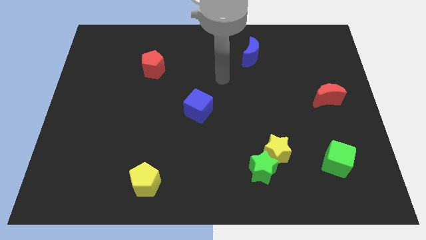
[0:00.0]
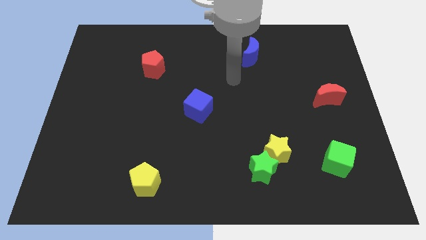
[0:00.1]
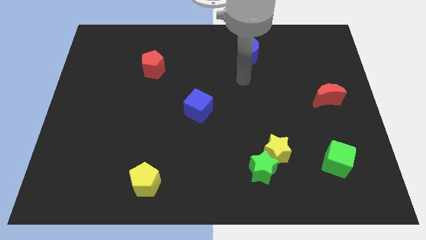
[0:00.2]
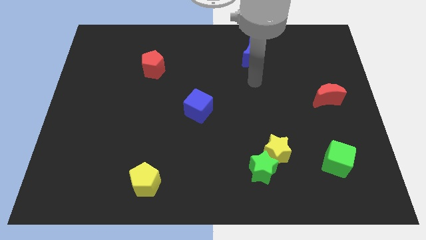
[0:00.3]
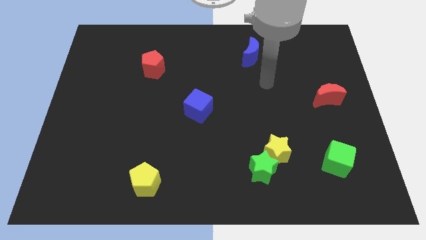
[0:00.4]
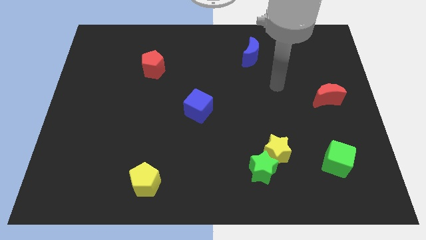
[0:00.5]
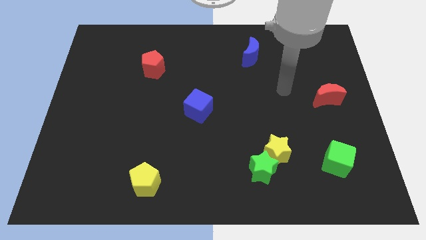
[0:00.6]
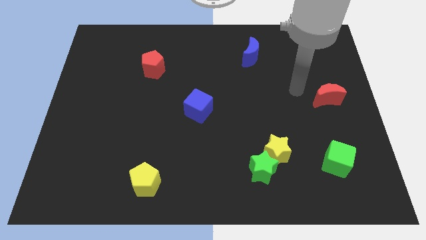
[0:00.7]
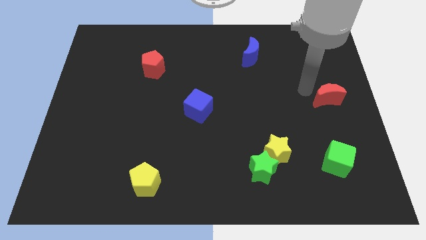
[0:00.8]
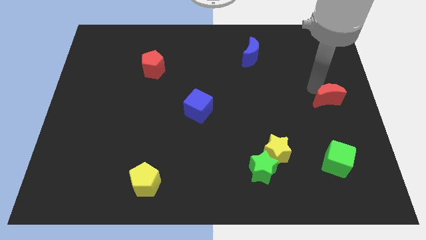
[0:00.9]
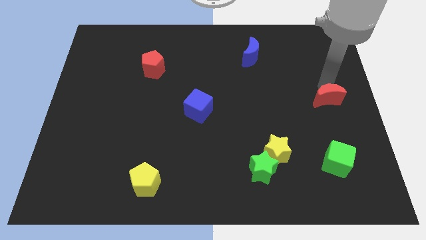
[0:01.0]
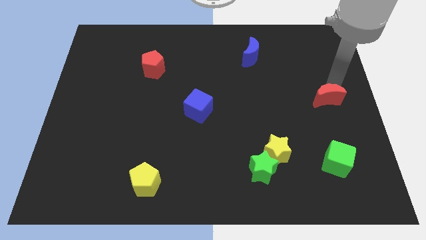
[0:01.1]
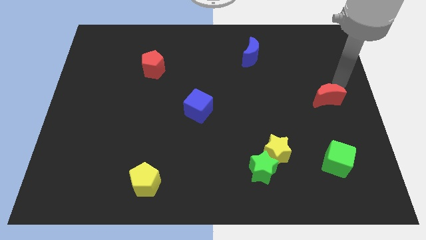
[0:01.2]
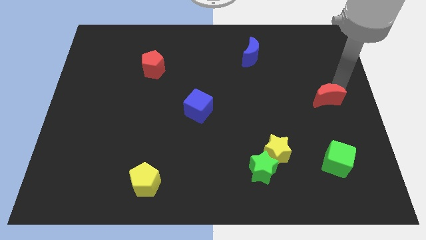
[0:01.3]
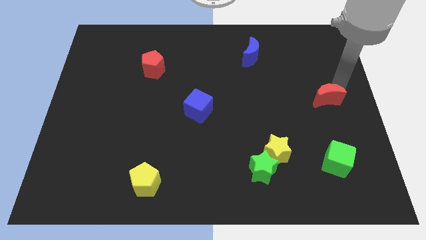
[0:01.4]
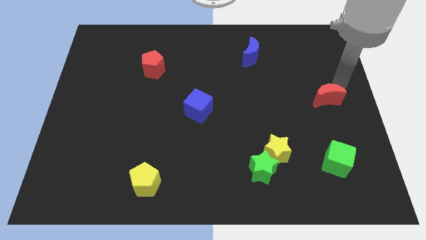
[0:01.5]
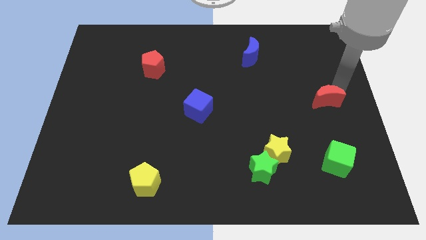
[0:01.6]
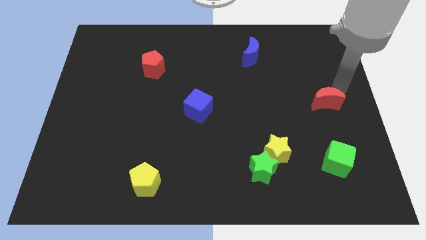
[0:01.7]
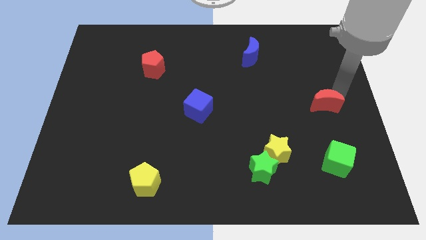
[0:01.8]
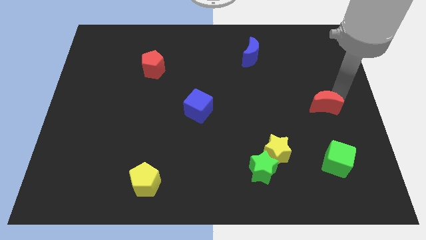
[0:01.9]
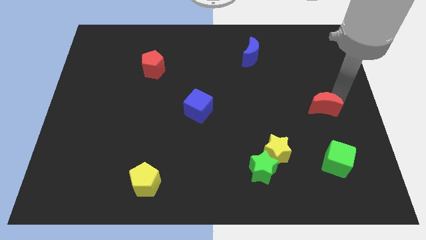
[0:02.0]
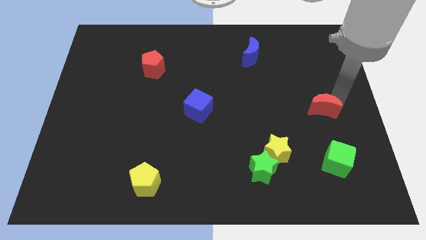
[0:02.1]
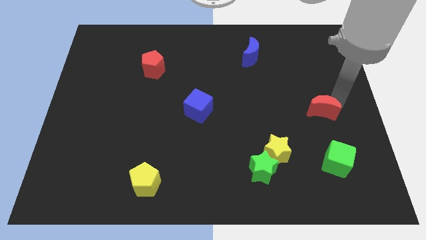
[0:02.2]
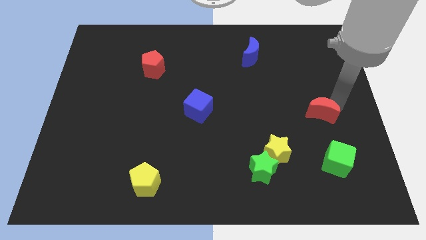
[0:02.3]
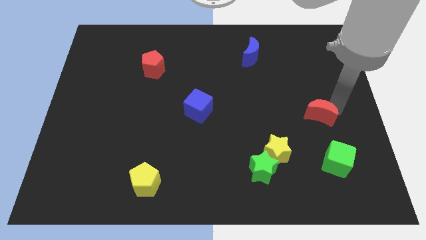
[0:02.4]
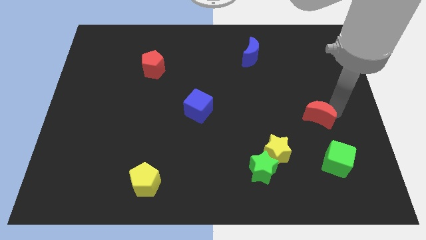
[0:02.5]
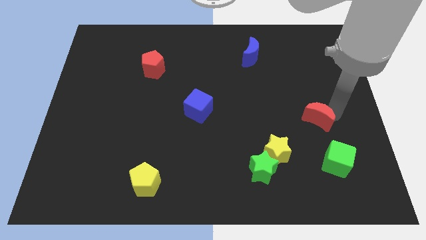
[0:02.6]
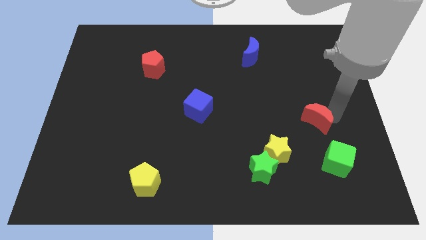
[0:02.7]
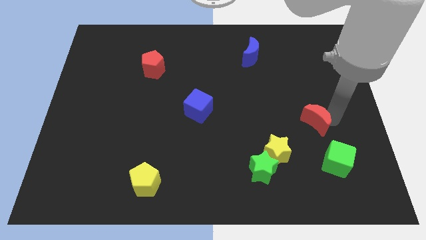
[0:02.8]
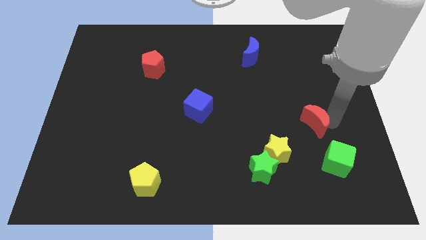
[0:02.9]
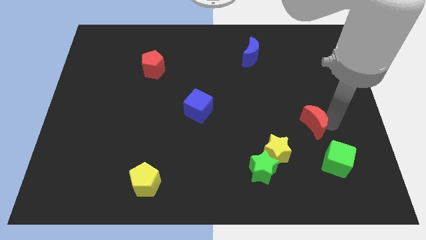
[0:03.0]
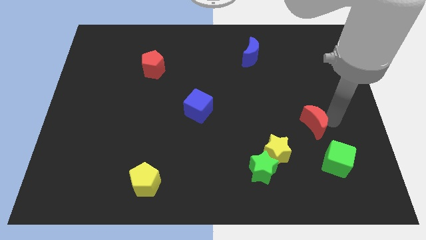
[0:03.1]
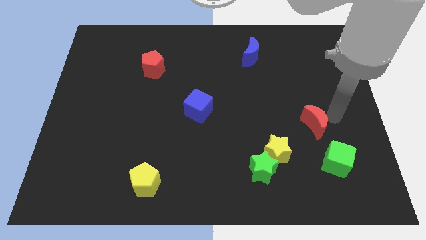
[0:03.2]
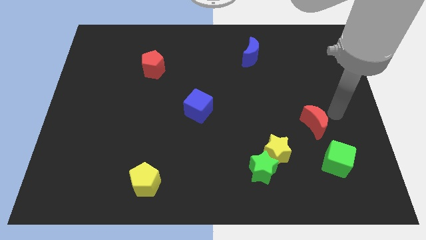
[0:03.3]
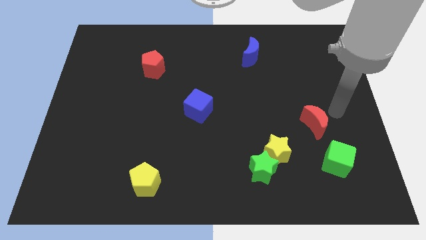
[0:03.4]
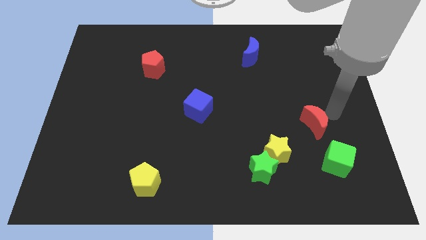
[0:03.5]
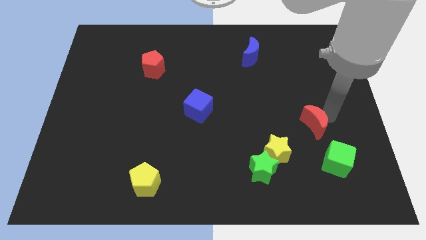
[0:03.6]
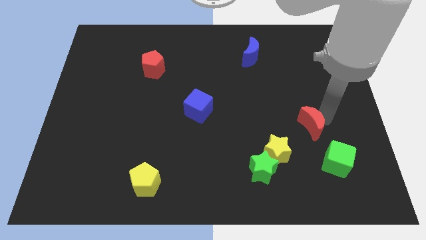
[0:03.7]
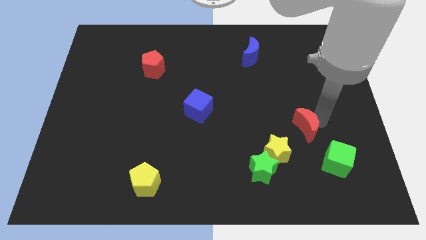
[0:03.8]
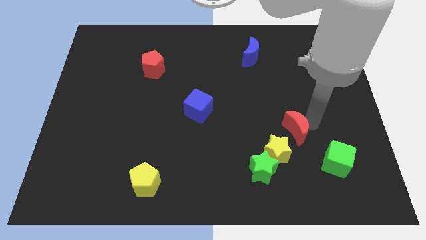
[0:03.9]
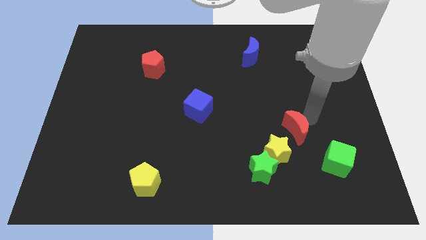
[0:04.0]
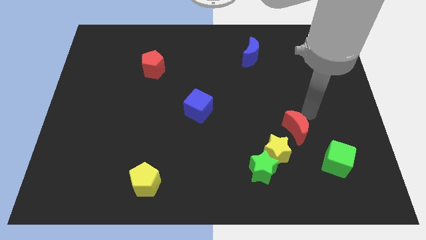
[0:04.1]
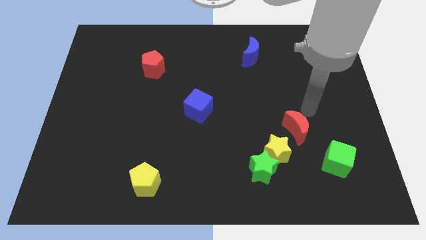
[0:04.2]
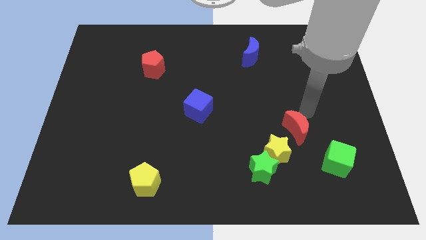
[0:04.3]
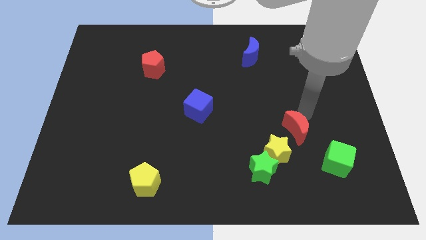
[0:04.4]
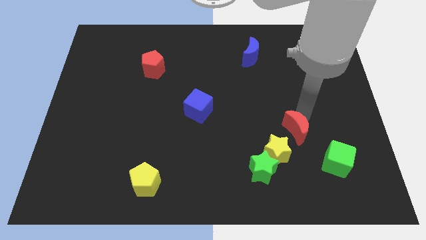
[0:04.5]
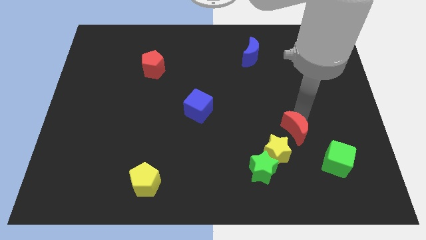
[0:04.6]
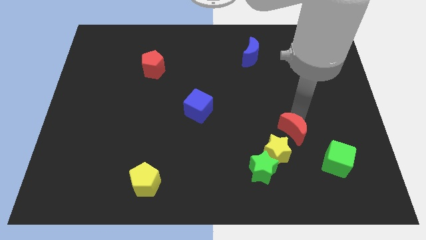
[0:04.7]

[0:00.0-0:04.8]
slide the red moon diagonally up and to the right of the green star

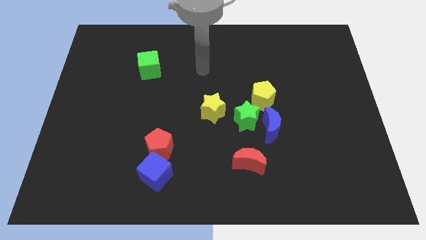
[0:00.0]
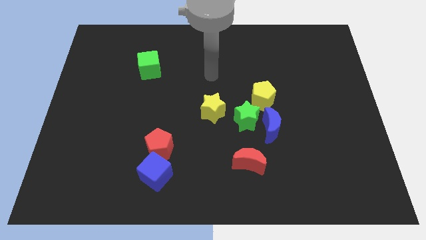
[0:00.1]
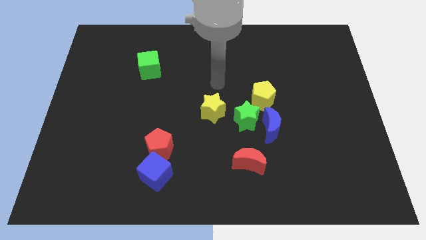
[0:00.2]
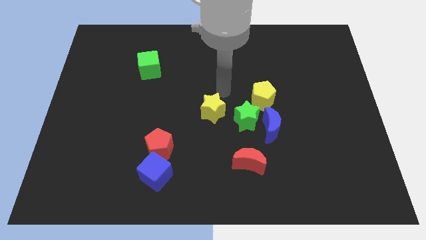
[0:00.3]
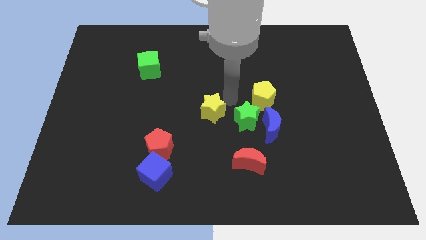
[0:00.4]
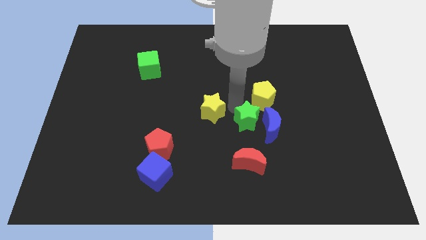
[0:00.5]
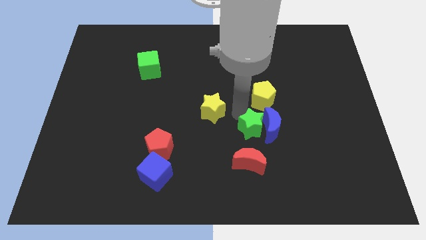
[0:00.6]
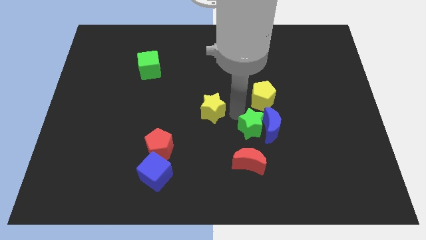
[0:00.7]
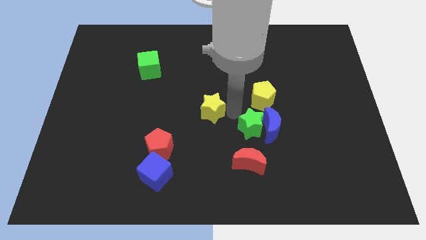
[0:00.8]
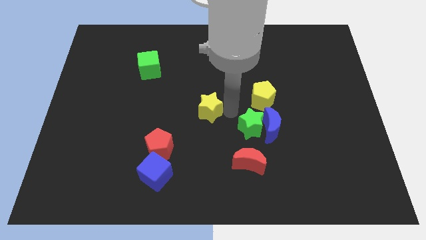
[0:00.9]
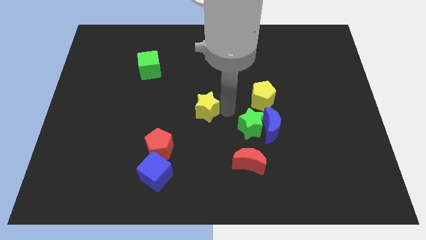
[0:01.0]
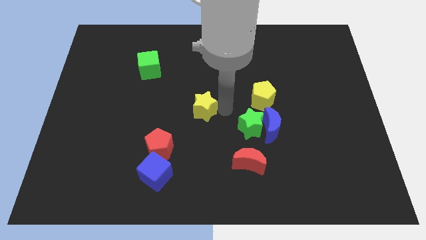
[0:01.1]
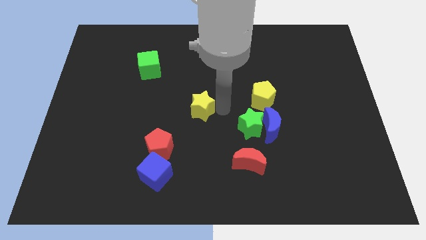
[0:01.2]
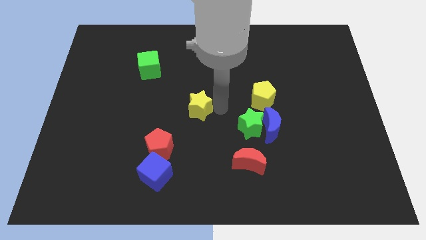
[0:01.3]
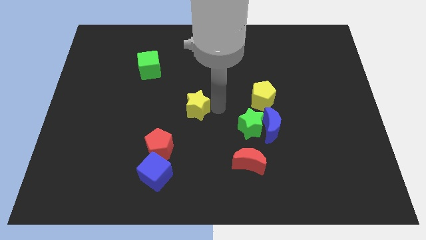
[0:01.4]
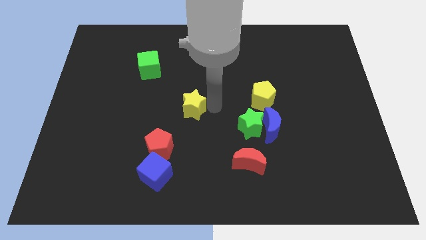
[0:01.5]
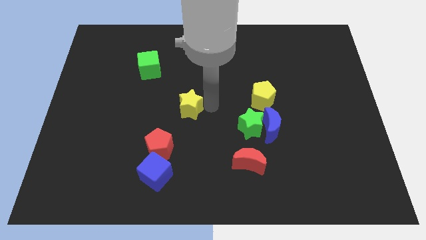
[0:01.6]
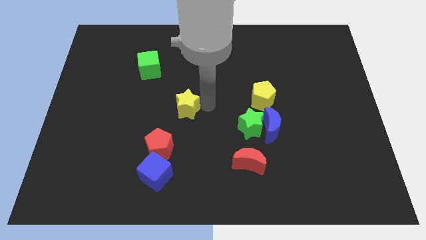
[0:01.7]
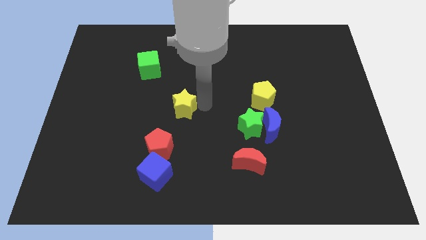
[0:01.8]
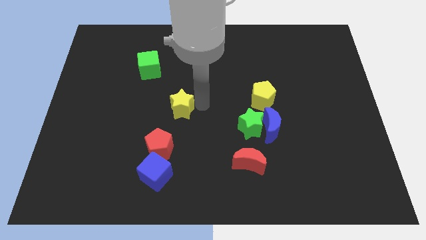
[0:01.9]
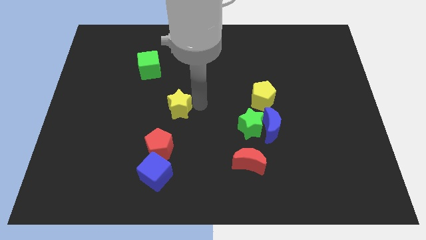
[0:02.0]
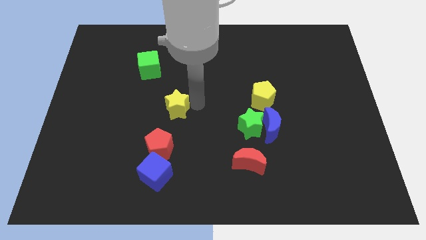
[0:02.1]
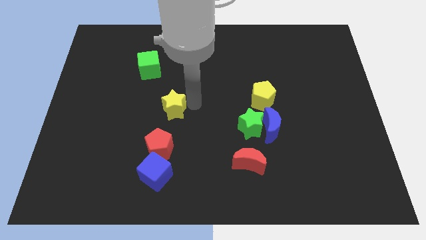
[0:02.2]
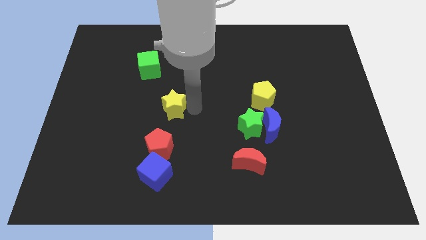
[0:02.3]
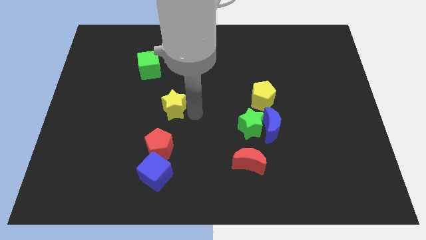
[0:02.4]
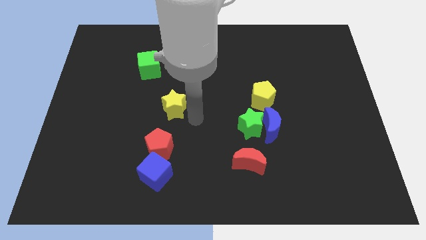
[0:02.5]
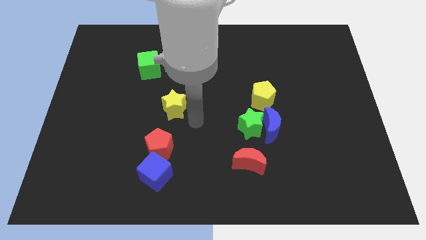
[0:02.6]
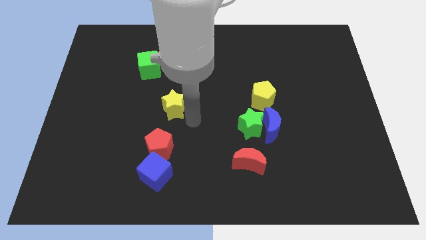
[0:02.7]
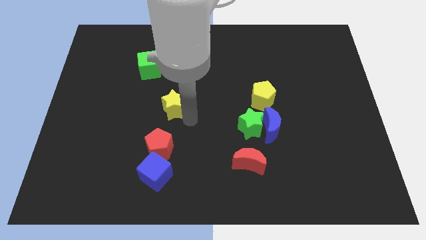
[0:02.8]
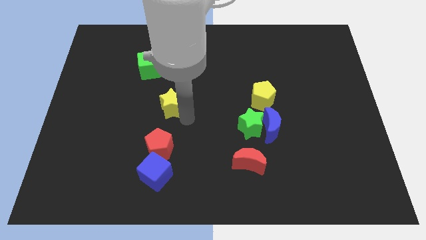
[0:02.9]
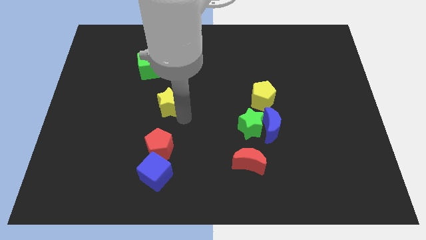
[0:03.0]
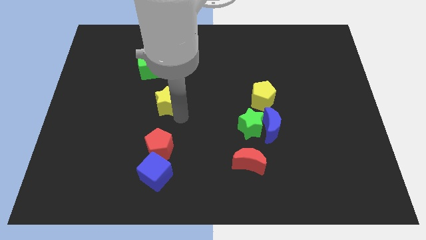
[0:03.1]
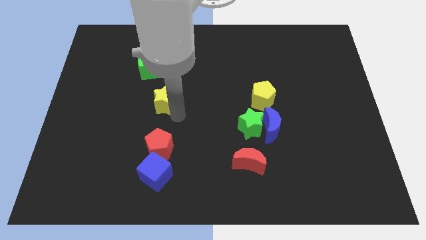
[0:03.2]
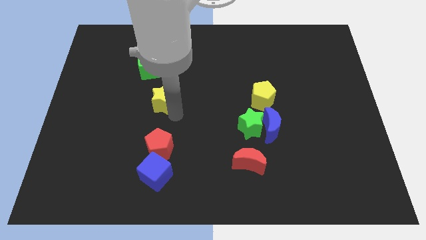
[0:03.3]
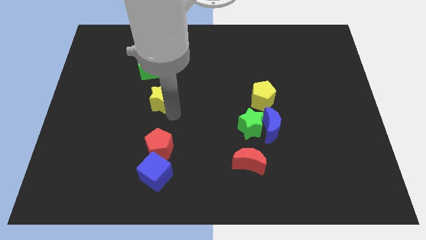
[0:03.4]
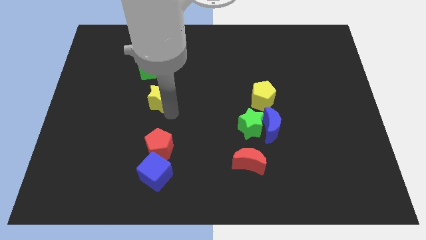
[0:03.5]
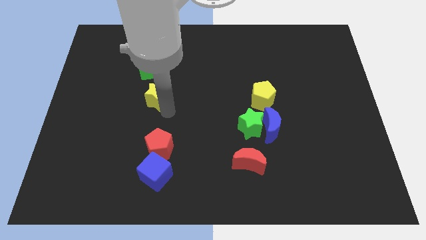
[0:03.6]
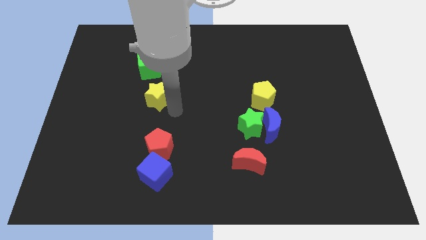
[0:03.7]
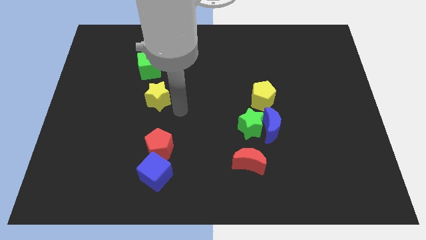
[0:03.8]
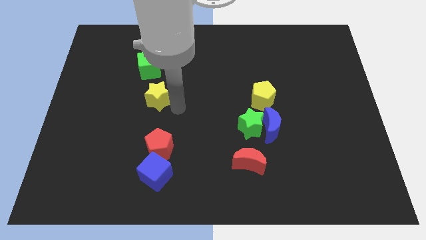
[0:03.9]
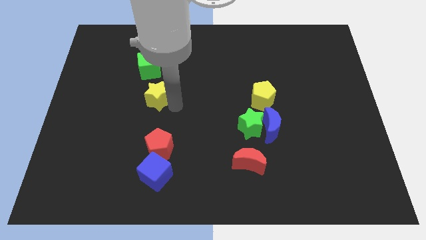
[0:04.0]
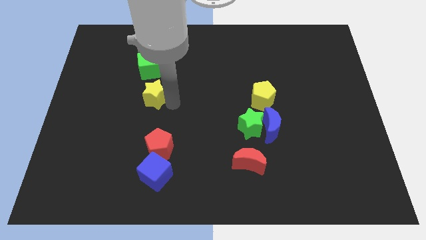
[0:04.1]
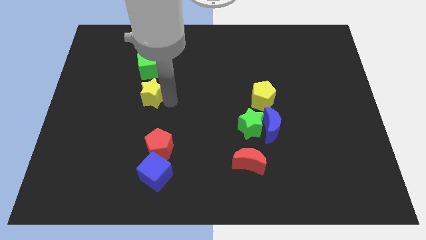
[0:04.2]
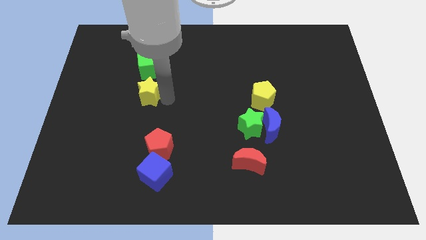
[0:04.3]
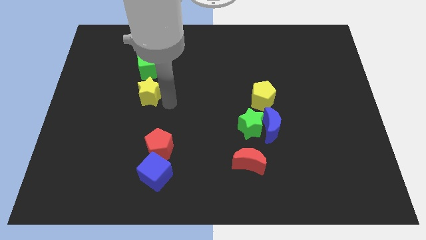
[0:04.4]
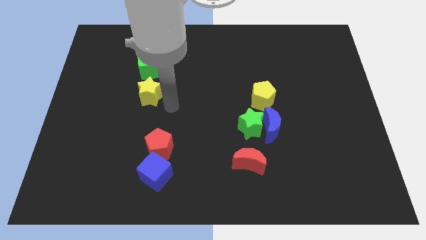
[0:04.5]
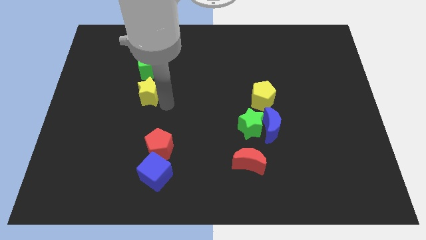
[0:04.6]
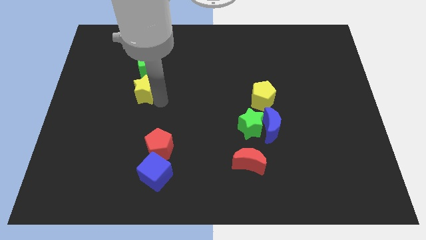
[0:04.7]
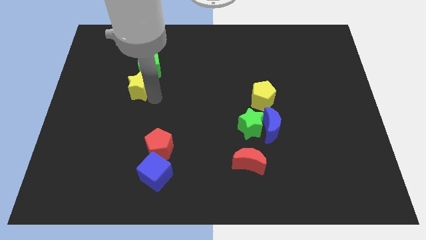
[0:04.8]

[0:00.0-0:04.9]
slide the yellow star to the bottom left side of the green cube
